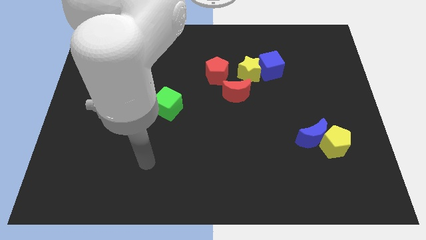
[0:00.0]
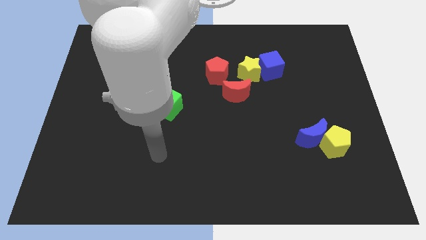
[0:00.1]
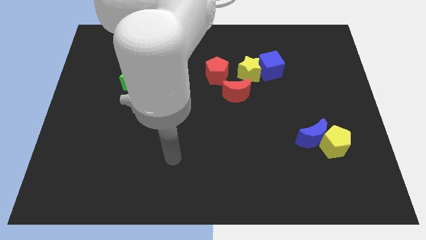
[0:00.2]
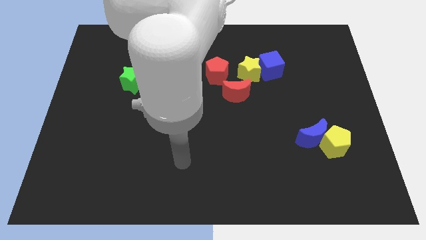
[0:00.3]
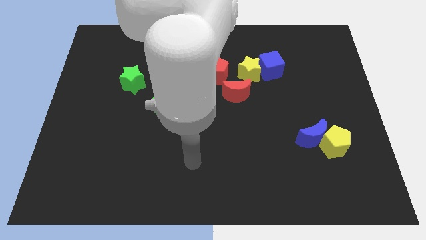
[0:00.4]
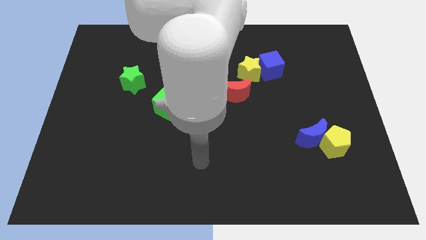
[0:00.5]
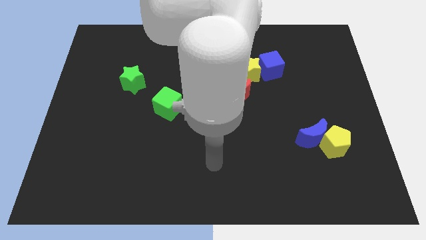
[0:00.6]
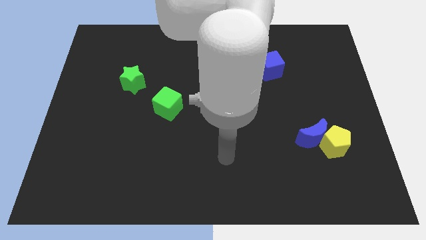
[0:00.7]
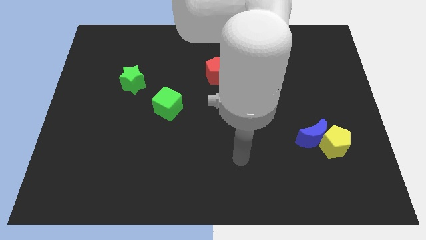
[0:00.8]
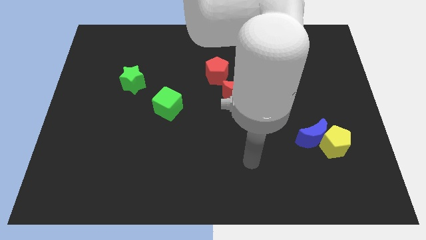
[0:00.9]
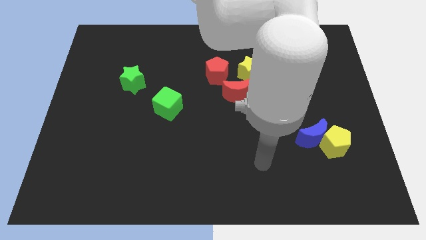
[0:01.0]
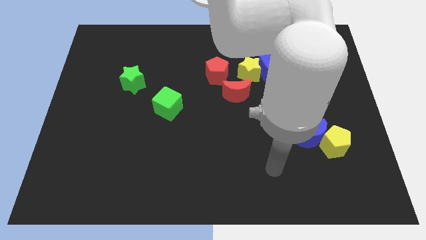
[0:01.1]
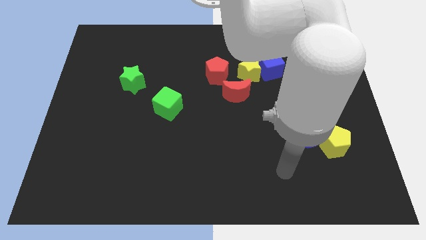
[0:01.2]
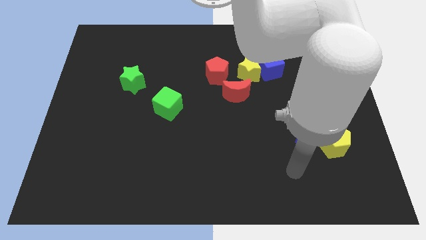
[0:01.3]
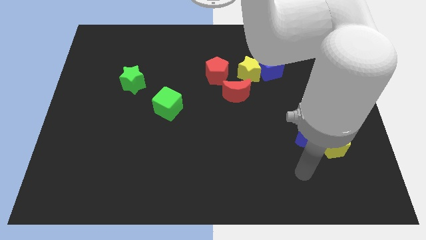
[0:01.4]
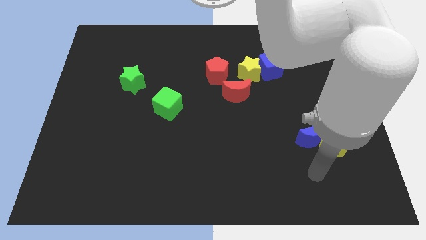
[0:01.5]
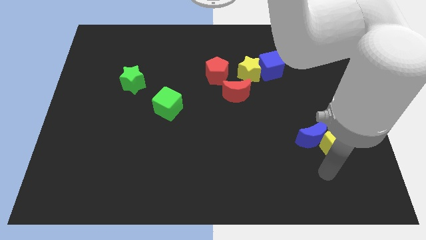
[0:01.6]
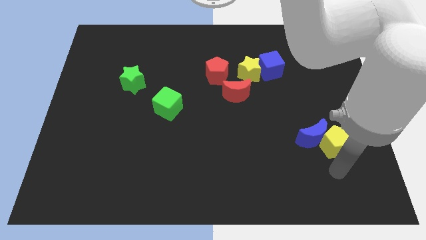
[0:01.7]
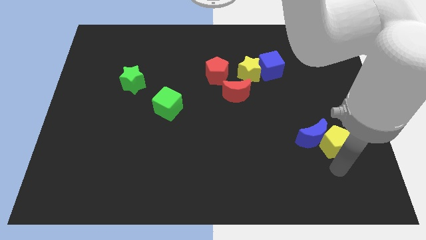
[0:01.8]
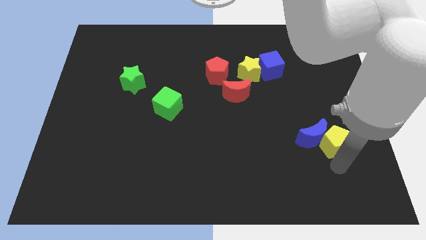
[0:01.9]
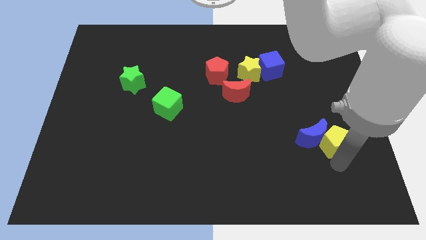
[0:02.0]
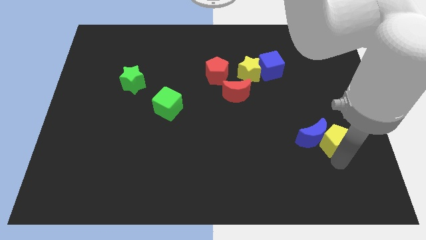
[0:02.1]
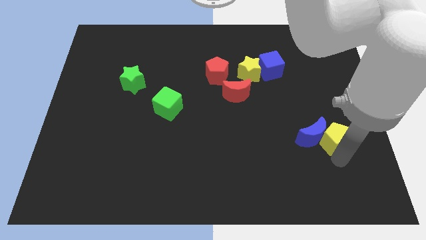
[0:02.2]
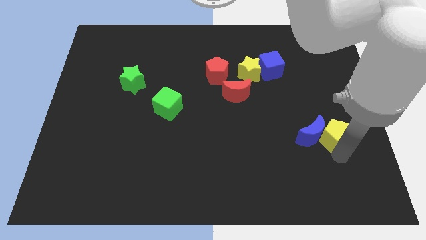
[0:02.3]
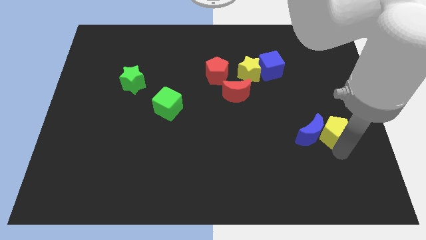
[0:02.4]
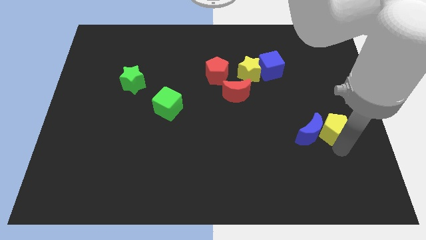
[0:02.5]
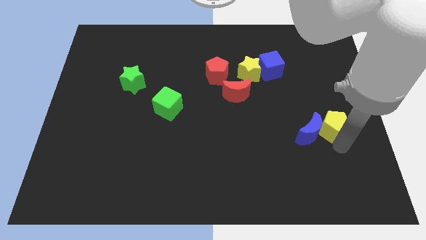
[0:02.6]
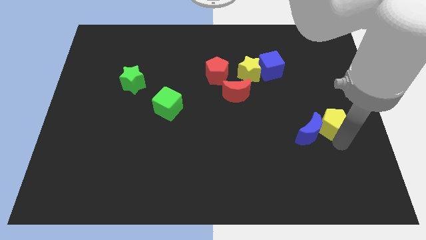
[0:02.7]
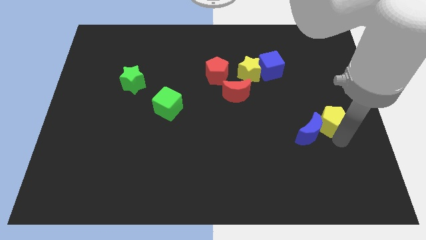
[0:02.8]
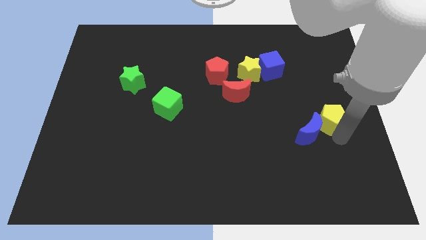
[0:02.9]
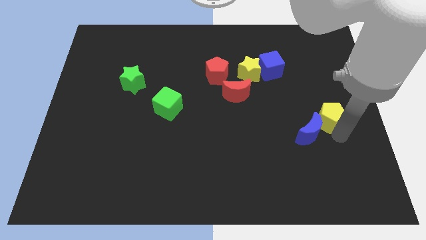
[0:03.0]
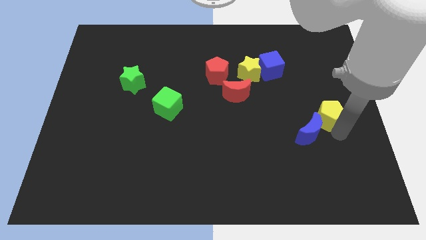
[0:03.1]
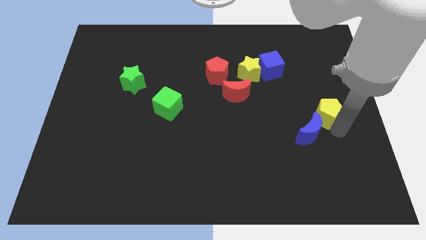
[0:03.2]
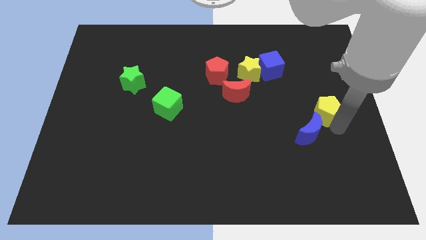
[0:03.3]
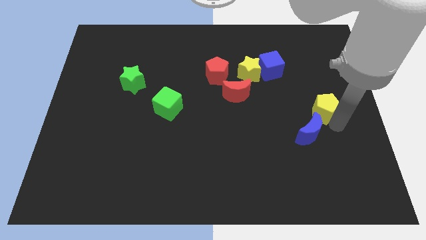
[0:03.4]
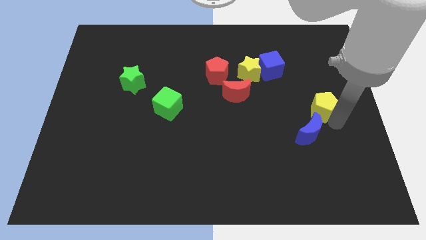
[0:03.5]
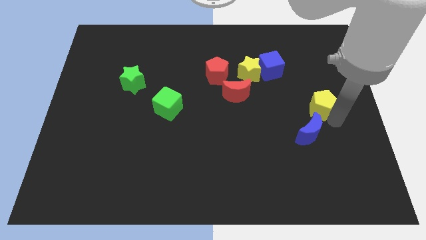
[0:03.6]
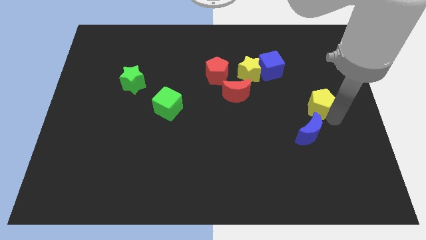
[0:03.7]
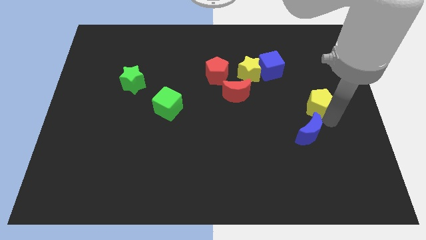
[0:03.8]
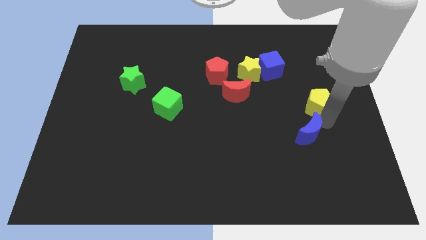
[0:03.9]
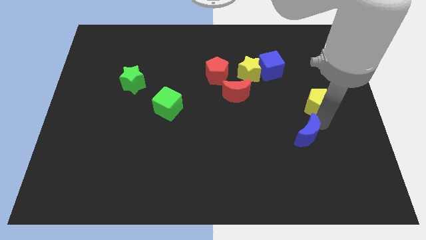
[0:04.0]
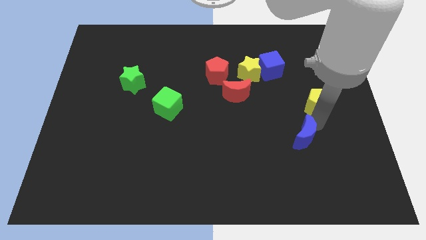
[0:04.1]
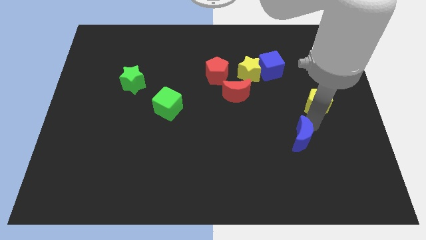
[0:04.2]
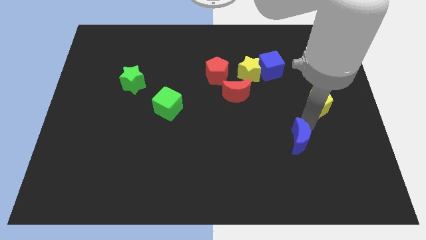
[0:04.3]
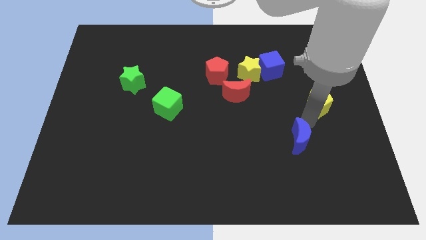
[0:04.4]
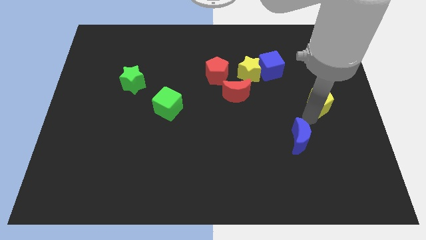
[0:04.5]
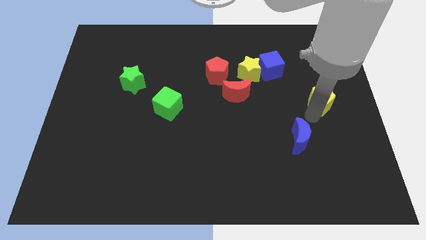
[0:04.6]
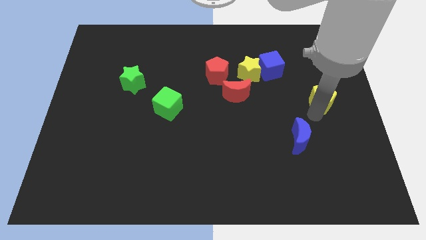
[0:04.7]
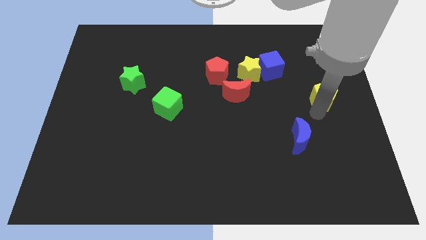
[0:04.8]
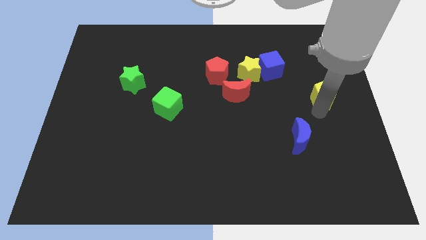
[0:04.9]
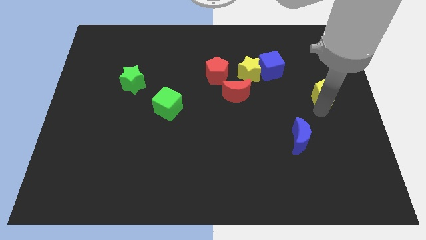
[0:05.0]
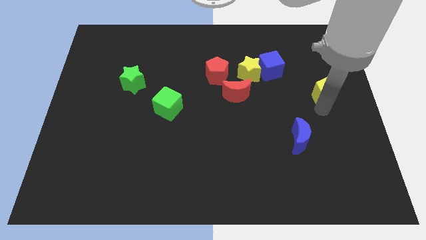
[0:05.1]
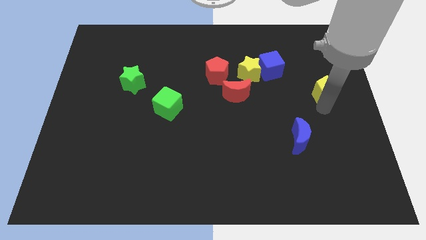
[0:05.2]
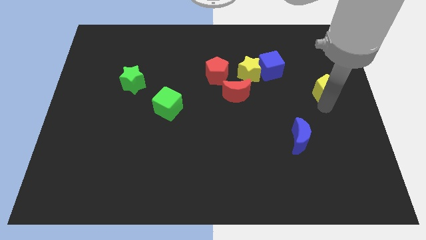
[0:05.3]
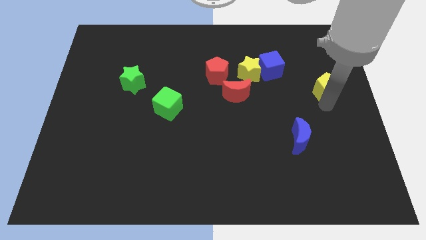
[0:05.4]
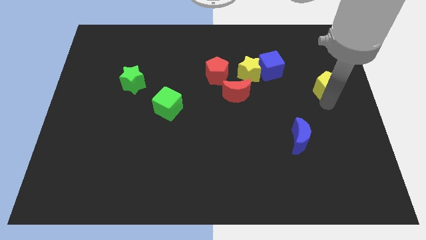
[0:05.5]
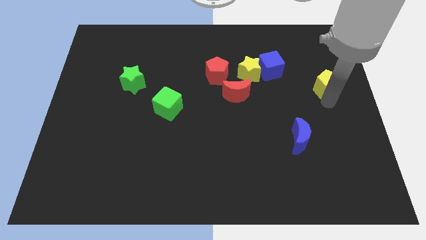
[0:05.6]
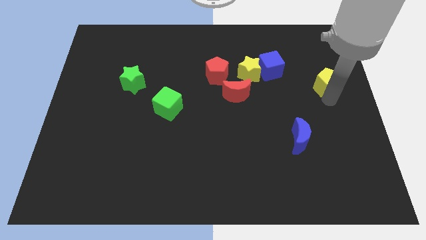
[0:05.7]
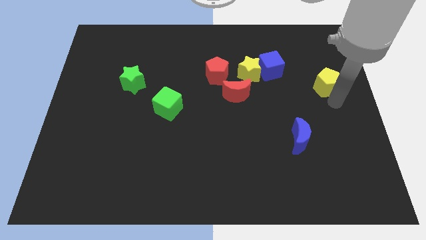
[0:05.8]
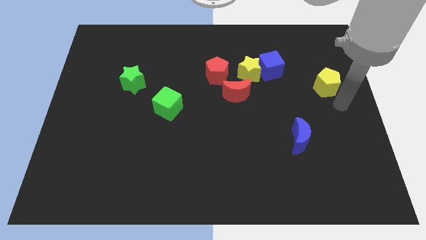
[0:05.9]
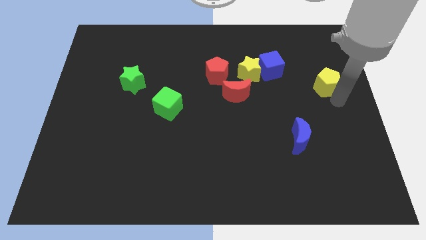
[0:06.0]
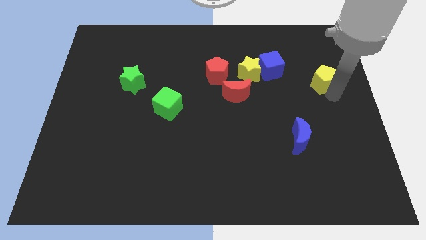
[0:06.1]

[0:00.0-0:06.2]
move the yellow pentagon to the right of the blue cube
